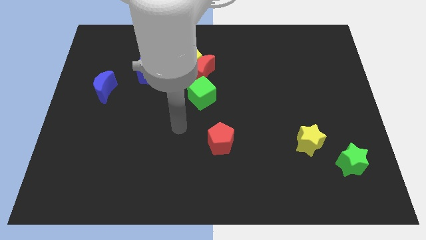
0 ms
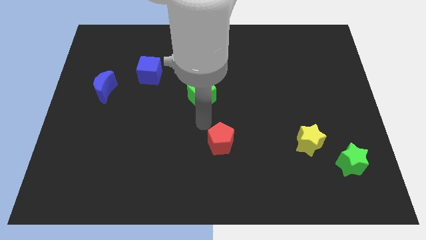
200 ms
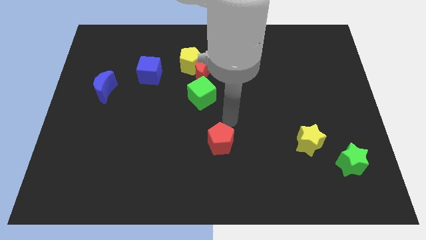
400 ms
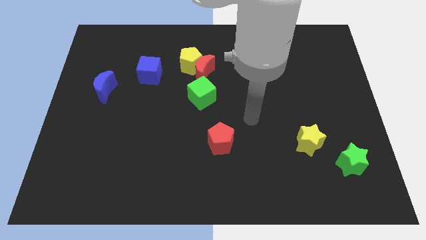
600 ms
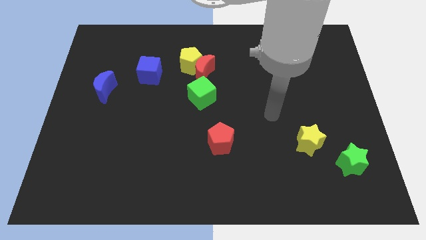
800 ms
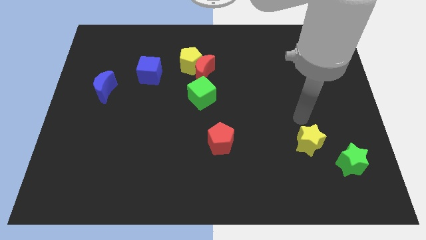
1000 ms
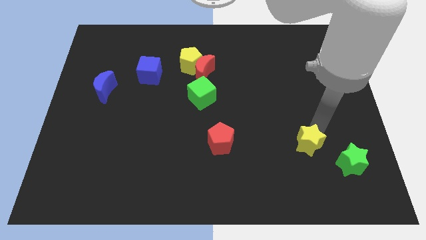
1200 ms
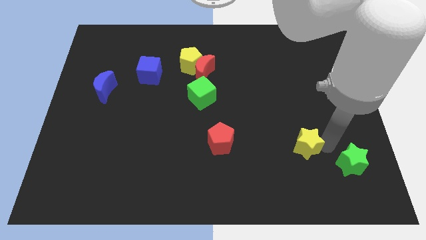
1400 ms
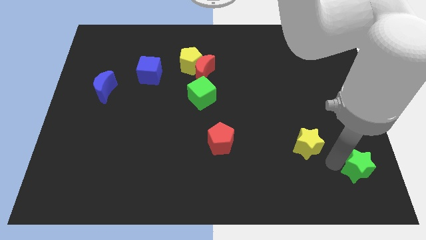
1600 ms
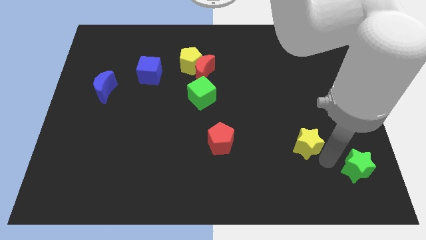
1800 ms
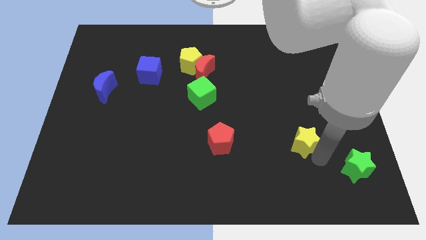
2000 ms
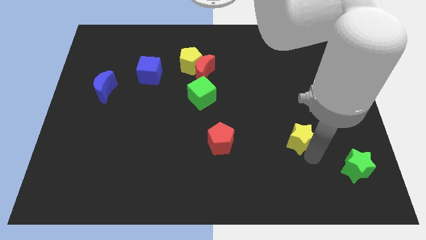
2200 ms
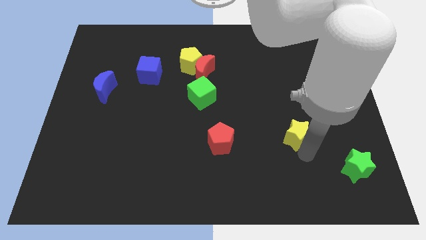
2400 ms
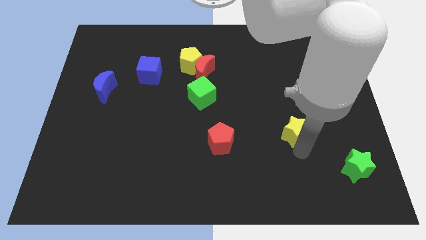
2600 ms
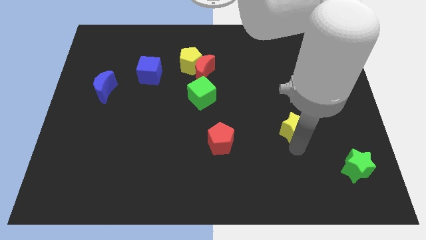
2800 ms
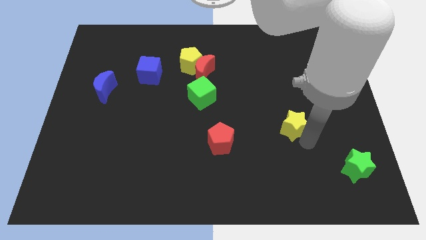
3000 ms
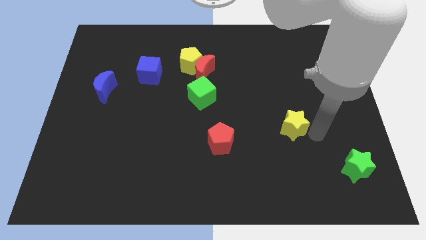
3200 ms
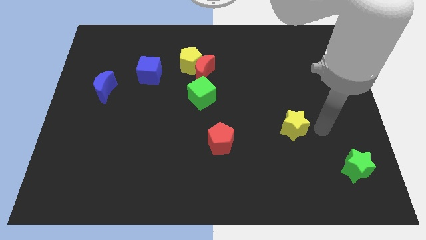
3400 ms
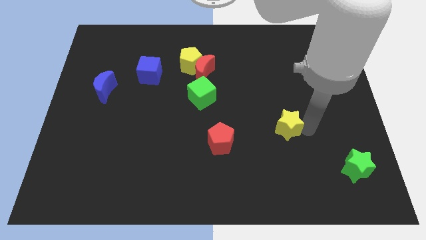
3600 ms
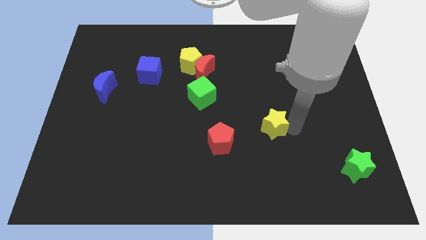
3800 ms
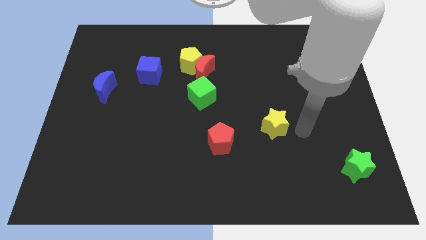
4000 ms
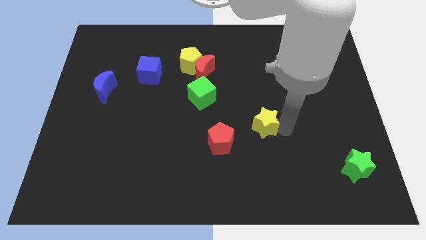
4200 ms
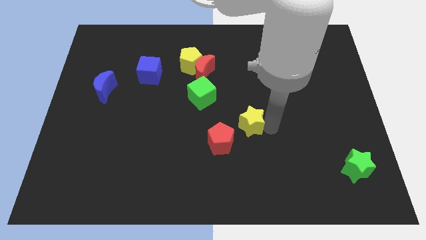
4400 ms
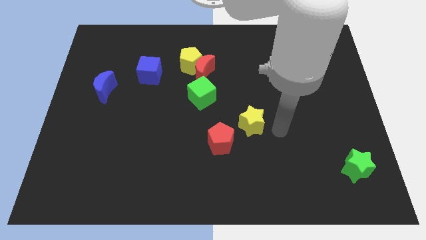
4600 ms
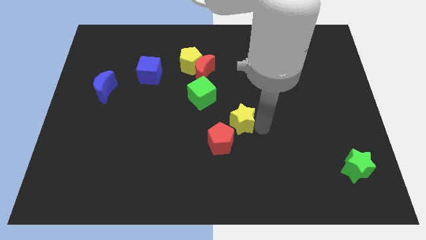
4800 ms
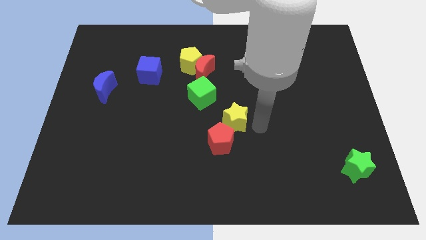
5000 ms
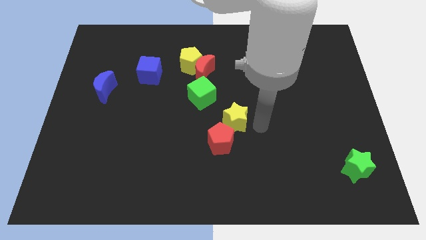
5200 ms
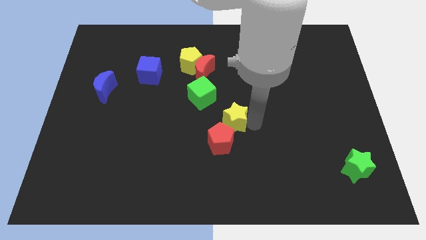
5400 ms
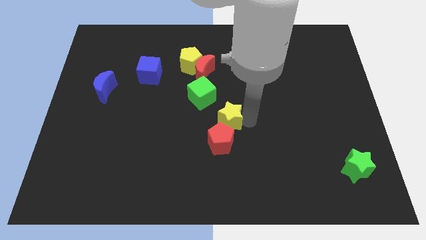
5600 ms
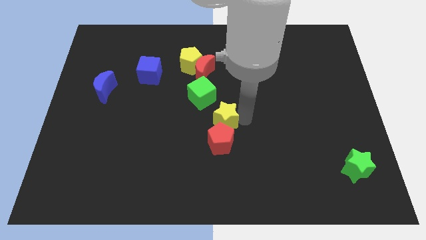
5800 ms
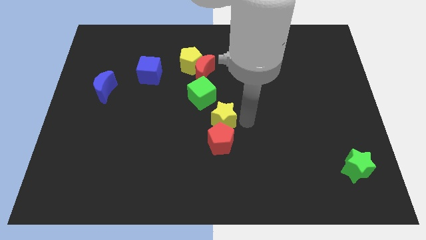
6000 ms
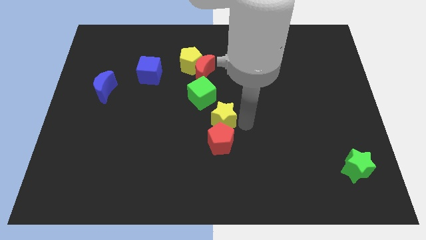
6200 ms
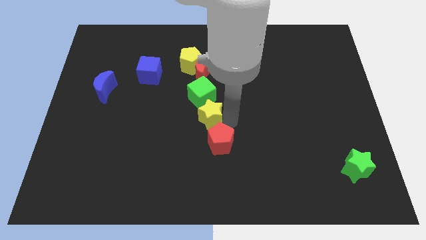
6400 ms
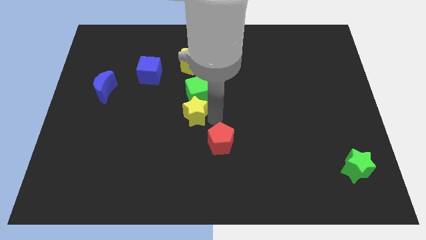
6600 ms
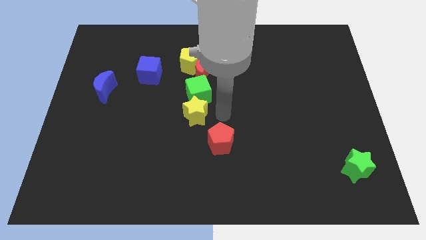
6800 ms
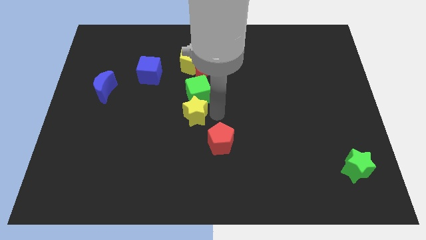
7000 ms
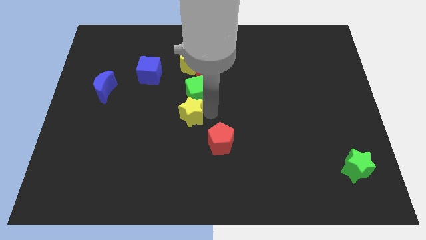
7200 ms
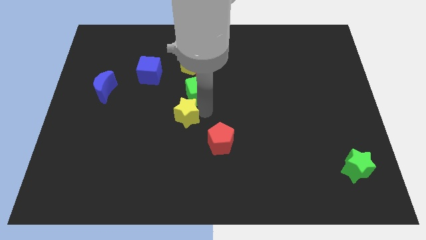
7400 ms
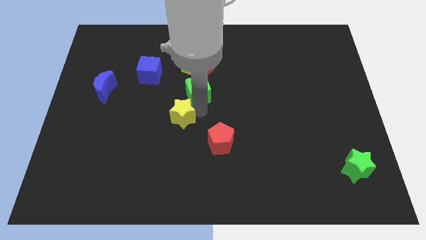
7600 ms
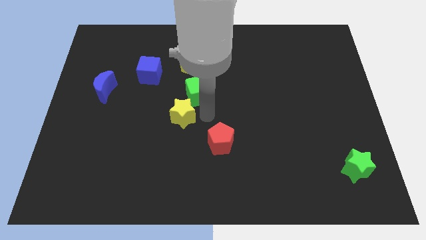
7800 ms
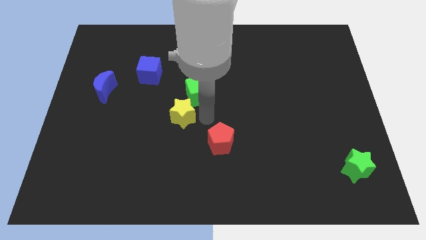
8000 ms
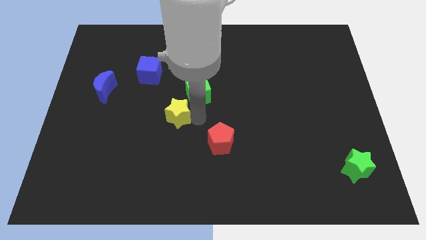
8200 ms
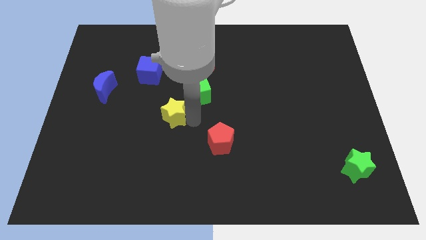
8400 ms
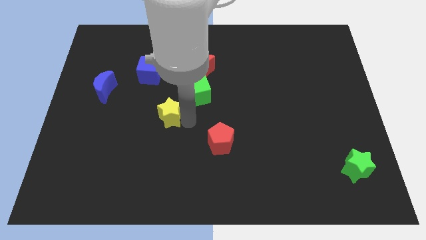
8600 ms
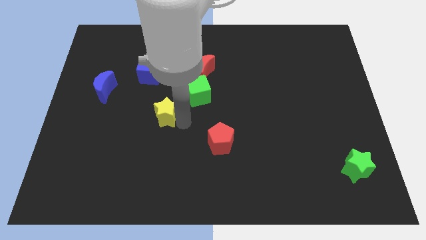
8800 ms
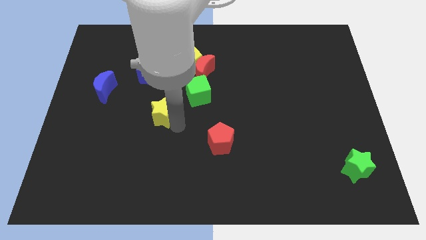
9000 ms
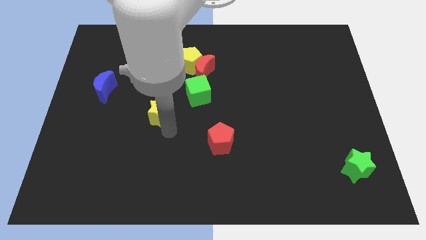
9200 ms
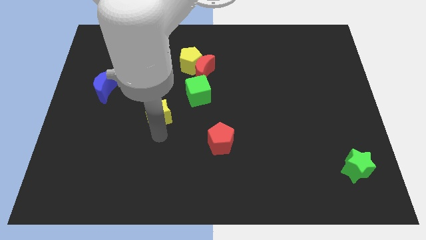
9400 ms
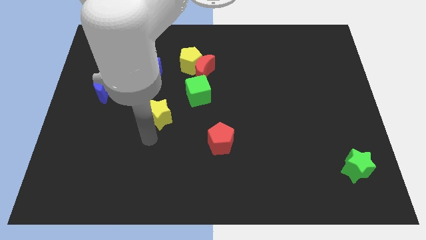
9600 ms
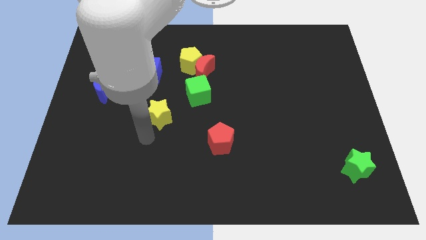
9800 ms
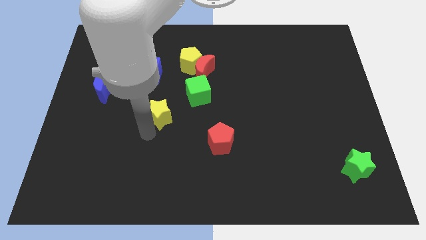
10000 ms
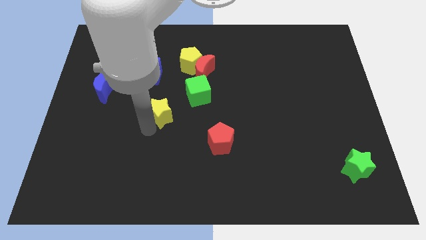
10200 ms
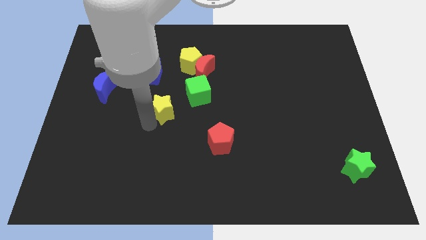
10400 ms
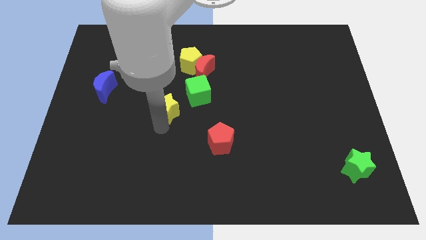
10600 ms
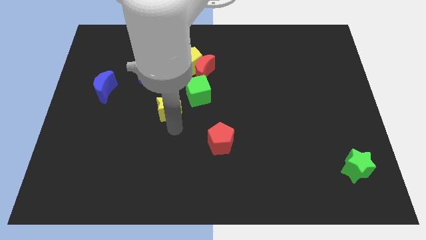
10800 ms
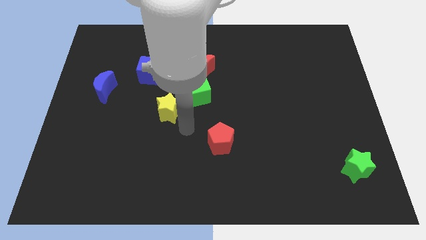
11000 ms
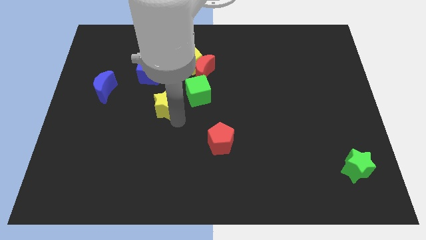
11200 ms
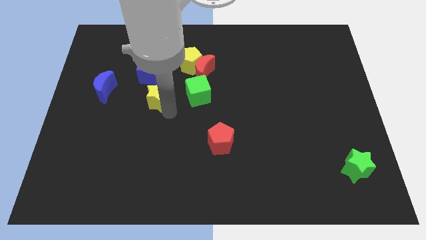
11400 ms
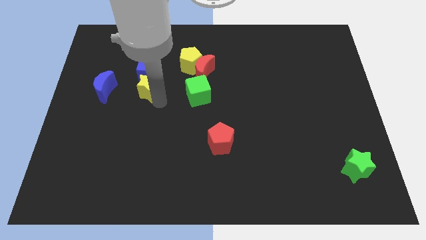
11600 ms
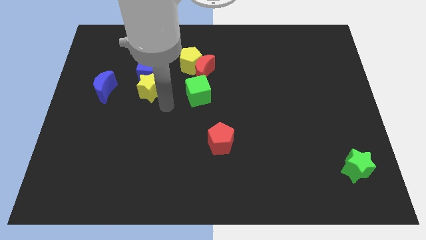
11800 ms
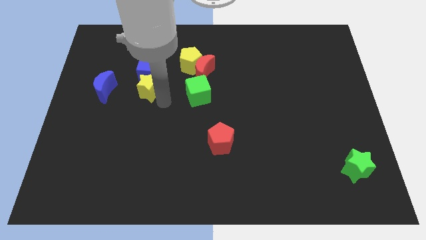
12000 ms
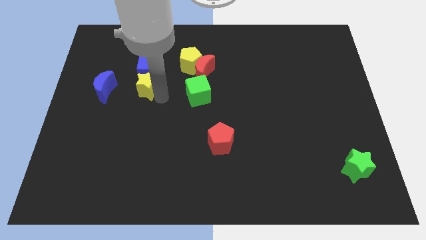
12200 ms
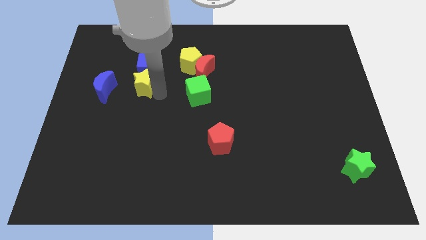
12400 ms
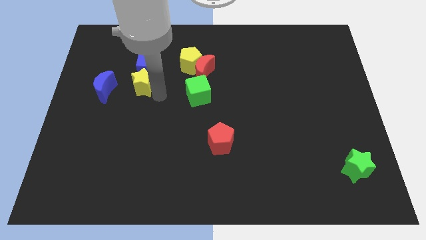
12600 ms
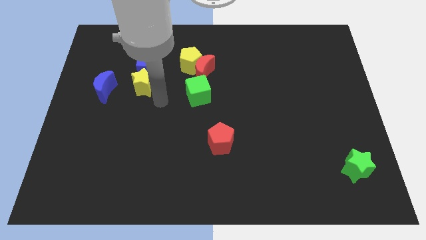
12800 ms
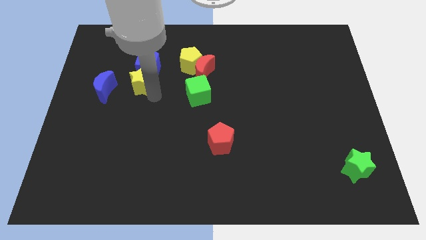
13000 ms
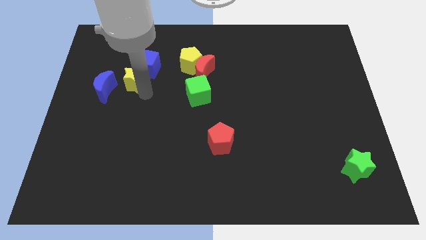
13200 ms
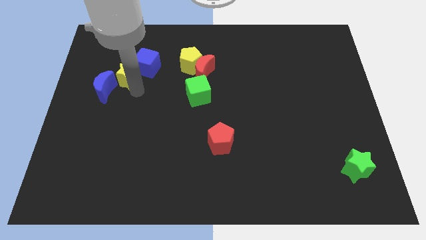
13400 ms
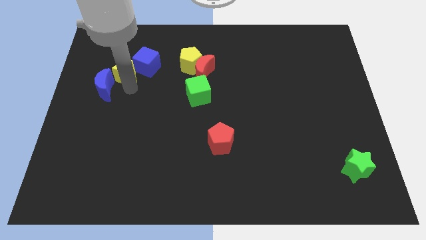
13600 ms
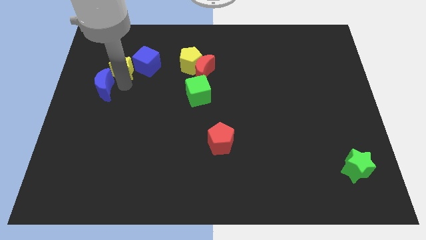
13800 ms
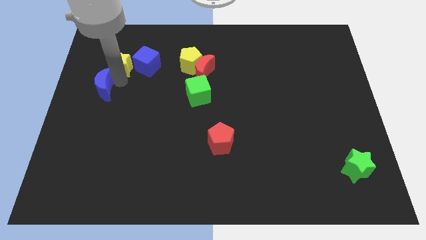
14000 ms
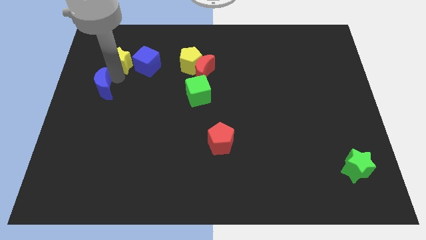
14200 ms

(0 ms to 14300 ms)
slide the yellow star to the top left side of the blue cube
